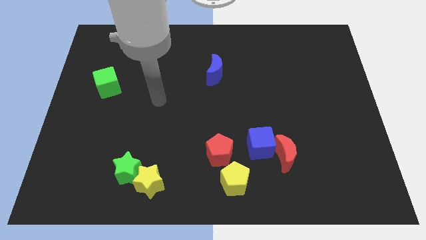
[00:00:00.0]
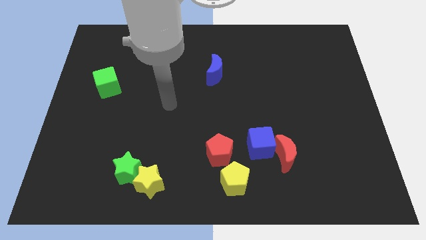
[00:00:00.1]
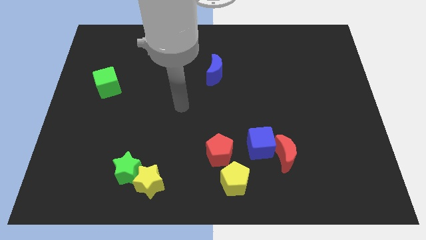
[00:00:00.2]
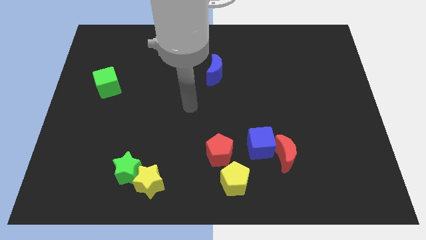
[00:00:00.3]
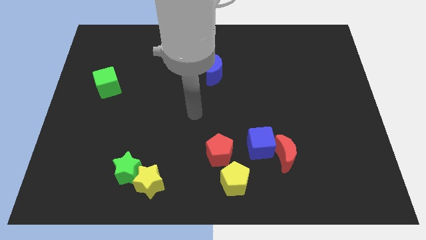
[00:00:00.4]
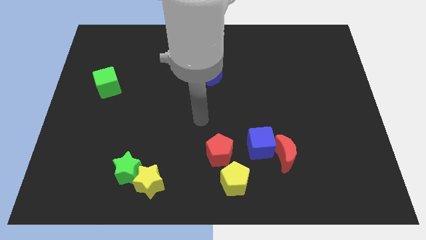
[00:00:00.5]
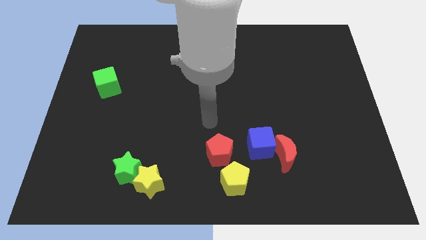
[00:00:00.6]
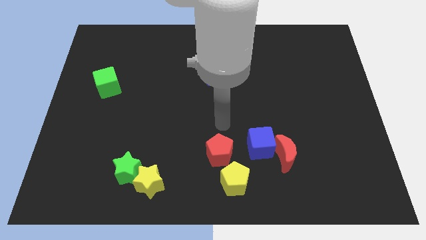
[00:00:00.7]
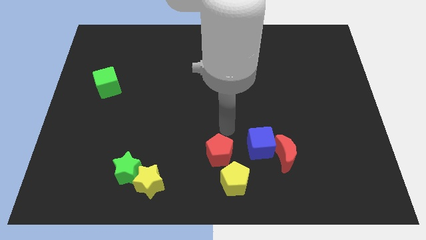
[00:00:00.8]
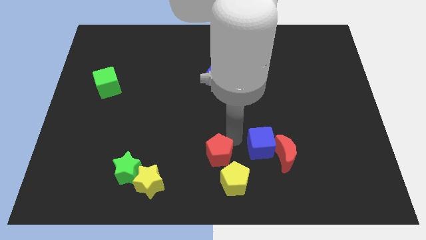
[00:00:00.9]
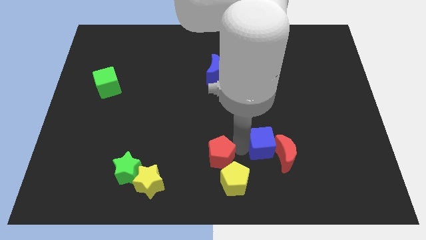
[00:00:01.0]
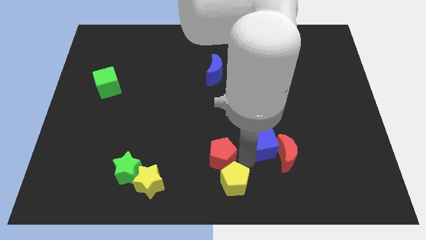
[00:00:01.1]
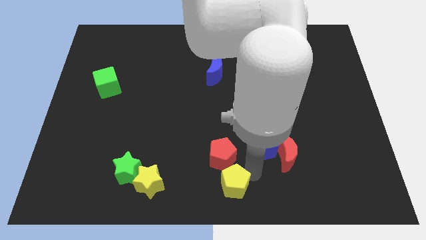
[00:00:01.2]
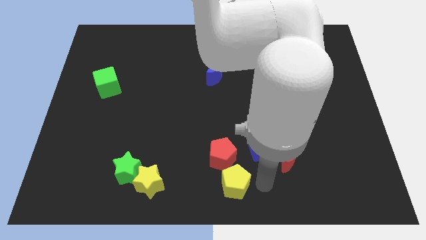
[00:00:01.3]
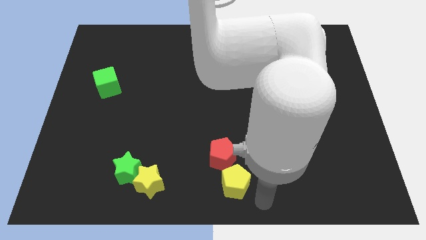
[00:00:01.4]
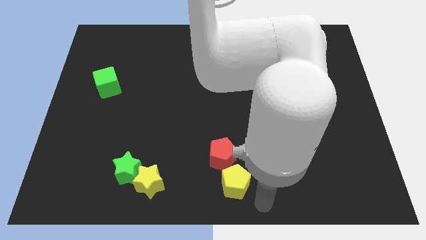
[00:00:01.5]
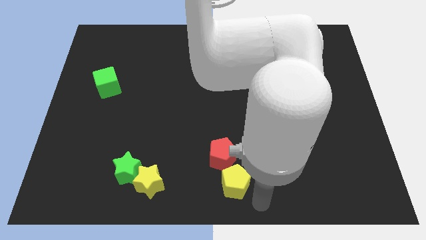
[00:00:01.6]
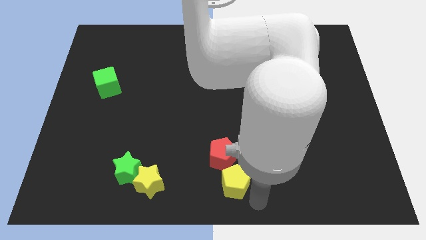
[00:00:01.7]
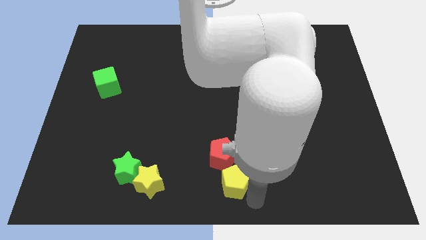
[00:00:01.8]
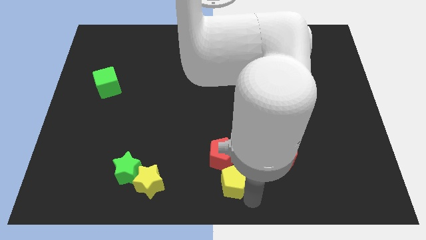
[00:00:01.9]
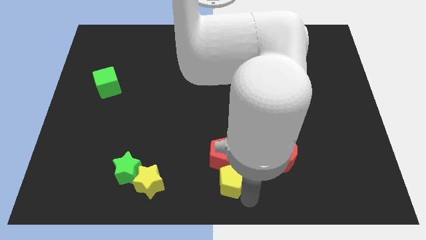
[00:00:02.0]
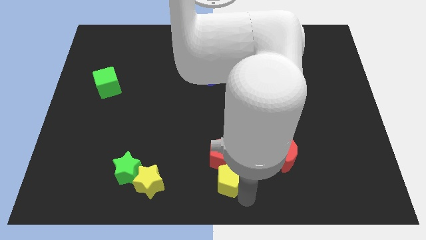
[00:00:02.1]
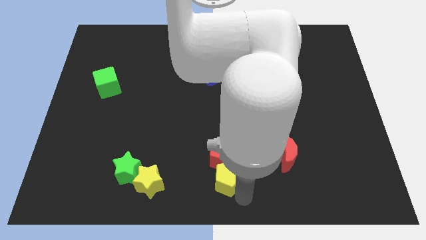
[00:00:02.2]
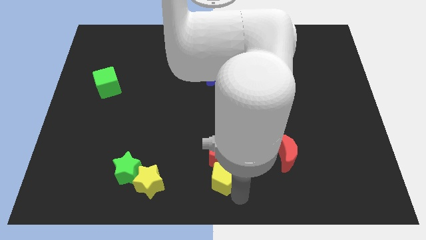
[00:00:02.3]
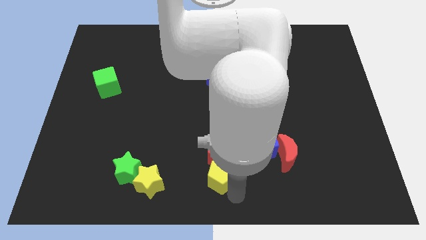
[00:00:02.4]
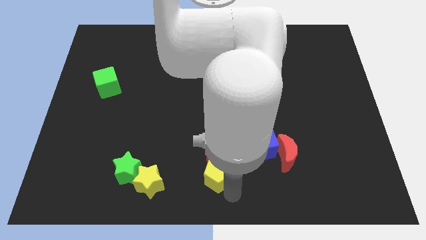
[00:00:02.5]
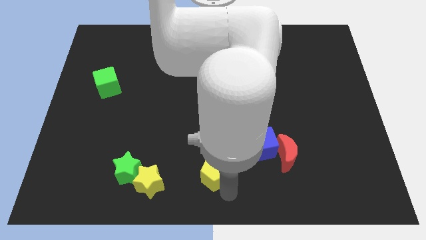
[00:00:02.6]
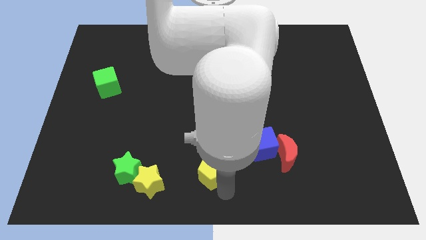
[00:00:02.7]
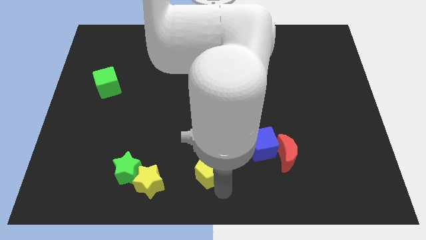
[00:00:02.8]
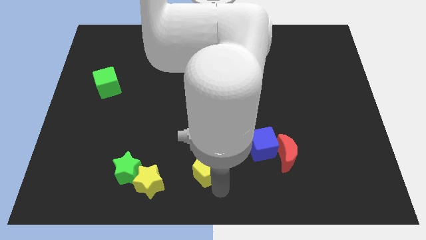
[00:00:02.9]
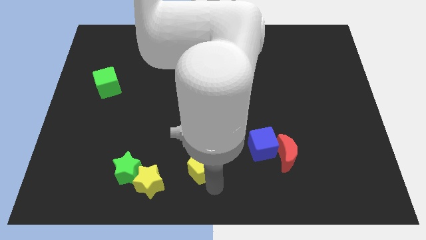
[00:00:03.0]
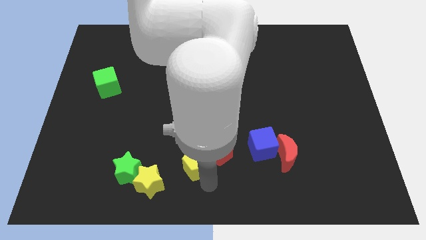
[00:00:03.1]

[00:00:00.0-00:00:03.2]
slide the yellow pentagon a bit upwards and to the left

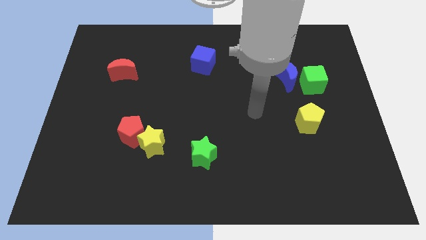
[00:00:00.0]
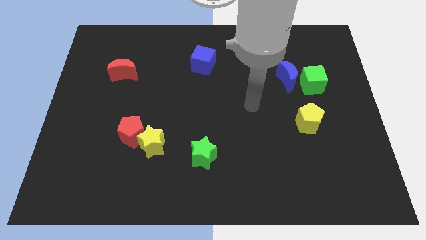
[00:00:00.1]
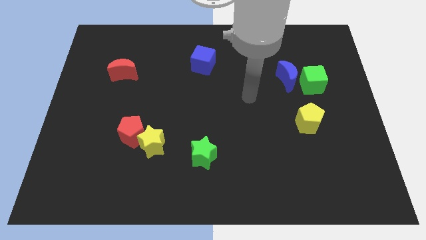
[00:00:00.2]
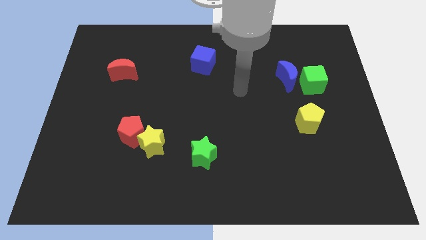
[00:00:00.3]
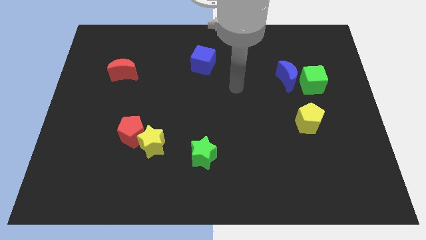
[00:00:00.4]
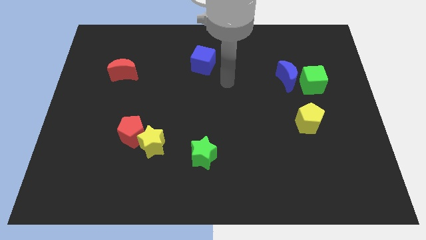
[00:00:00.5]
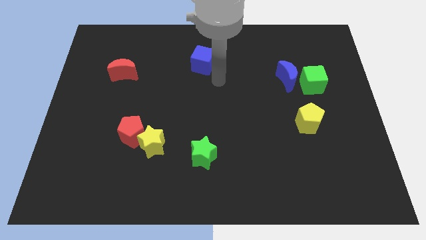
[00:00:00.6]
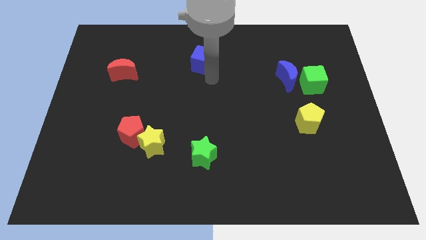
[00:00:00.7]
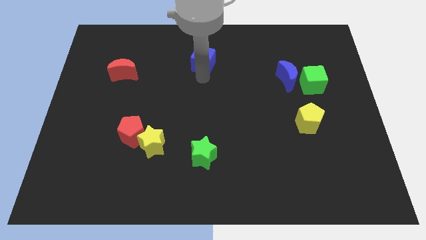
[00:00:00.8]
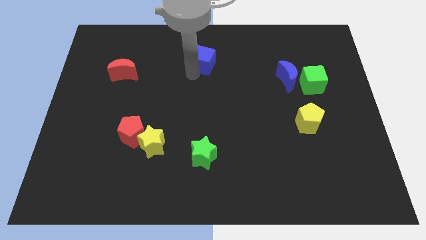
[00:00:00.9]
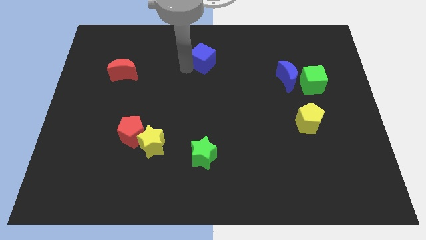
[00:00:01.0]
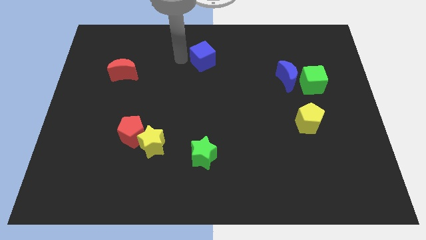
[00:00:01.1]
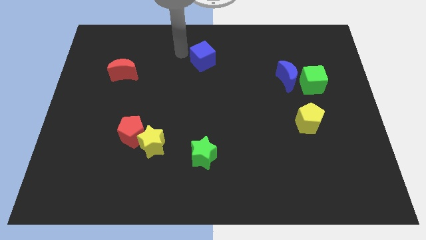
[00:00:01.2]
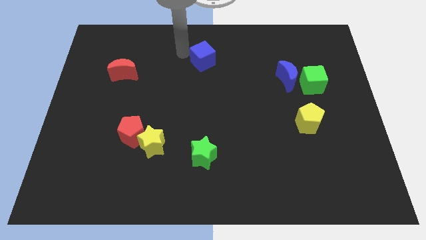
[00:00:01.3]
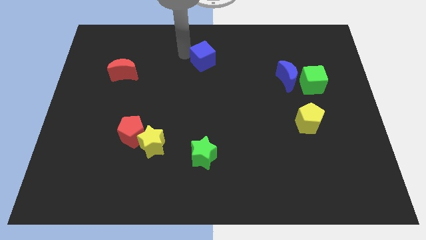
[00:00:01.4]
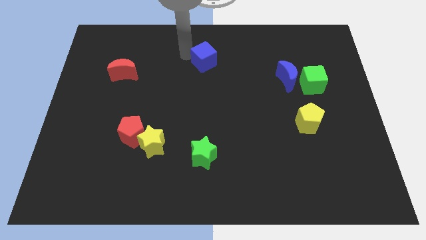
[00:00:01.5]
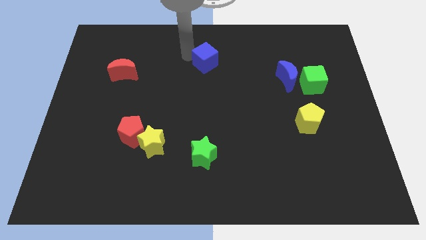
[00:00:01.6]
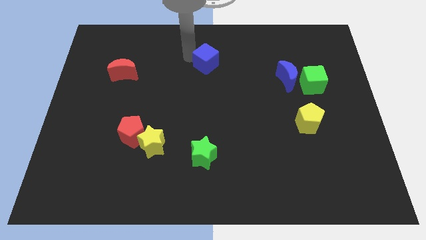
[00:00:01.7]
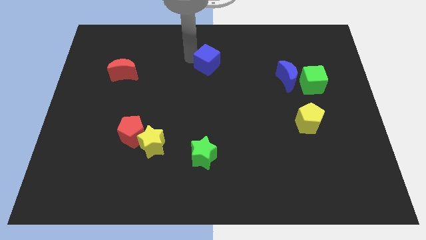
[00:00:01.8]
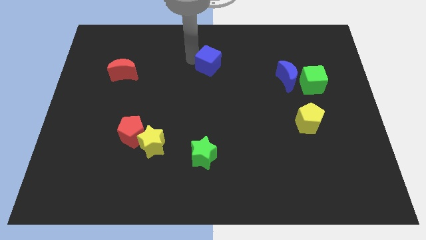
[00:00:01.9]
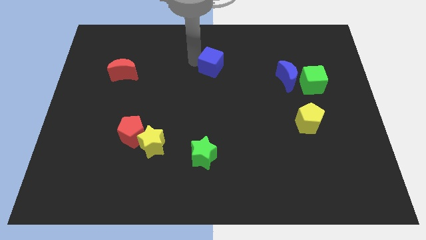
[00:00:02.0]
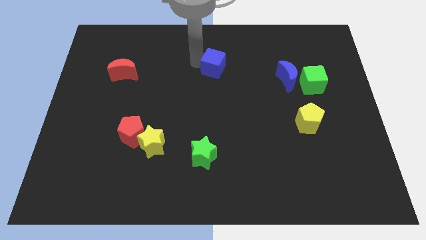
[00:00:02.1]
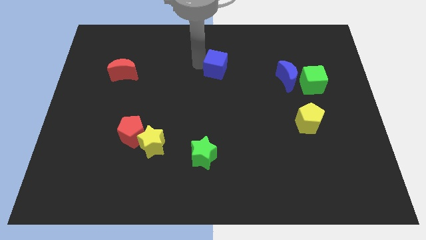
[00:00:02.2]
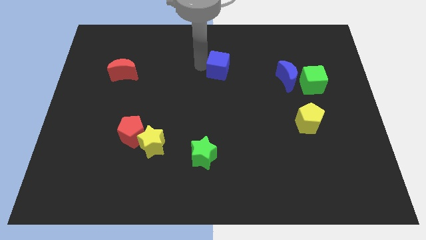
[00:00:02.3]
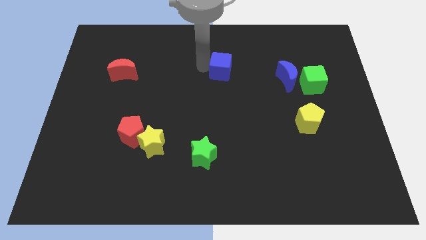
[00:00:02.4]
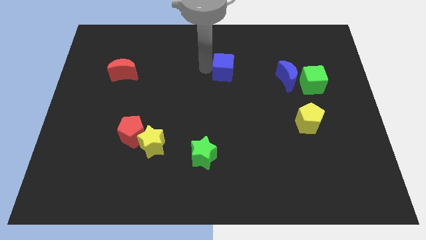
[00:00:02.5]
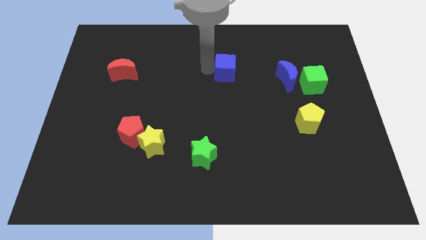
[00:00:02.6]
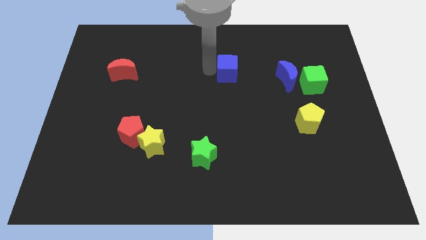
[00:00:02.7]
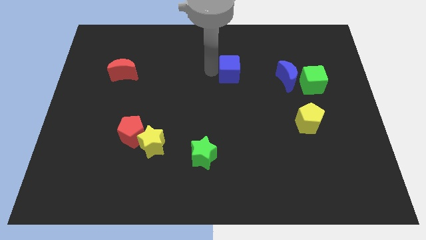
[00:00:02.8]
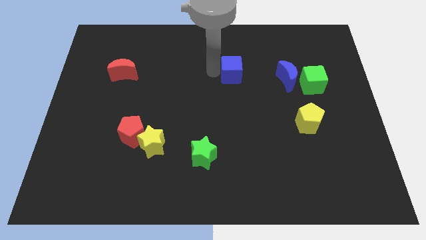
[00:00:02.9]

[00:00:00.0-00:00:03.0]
slightly slide the blue cube to the right

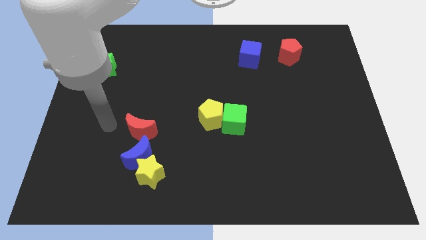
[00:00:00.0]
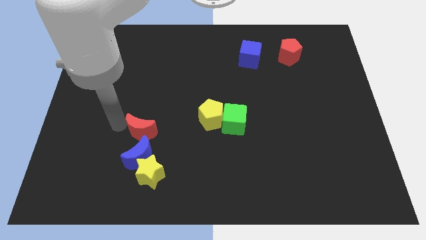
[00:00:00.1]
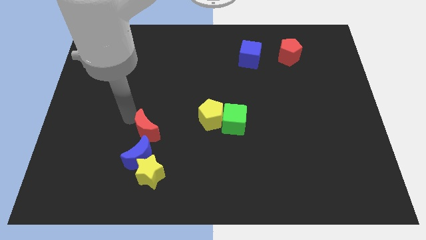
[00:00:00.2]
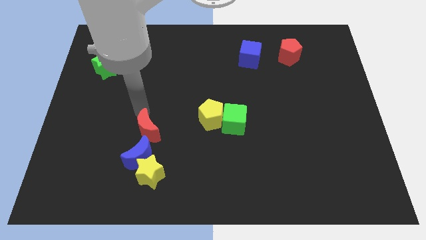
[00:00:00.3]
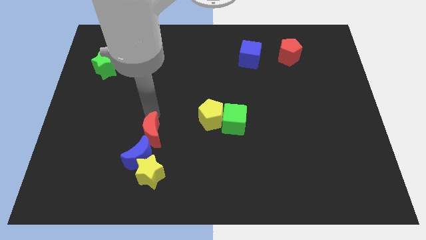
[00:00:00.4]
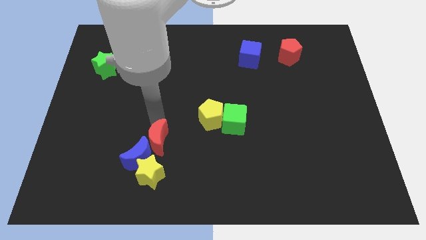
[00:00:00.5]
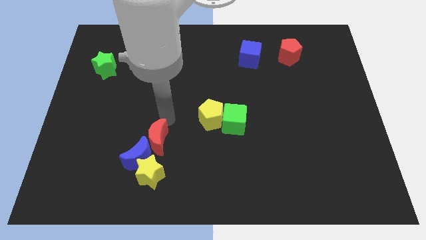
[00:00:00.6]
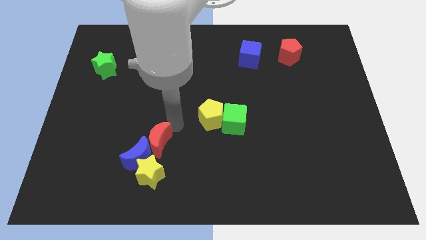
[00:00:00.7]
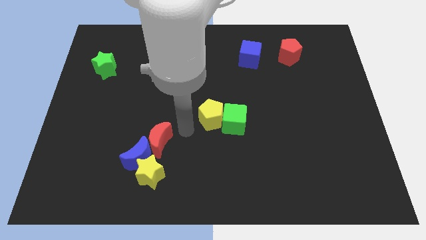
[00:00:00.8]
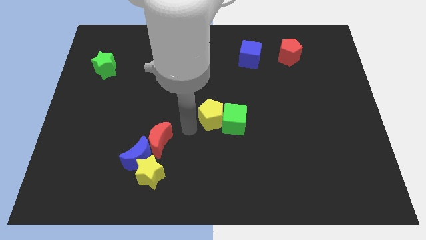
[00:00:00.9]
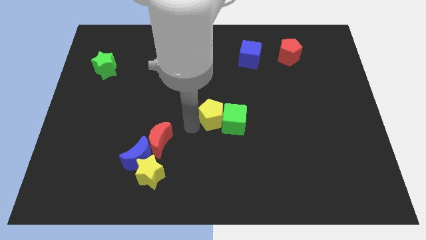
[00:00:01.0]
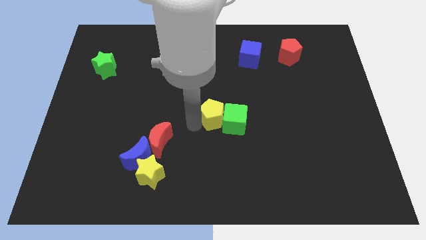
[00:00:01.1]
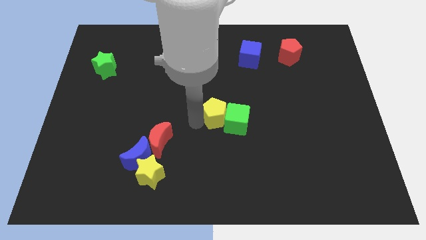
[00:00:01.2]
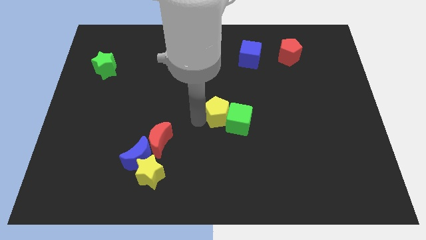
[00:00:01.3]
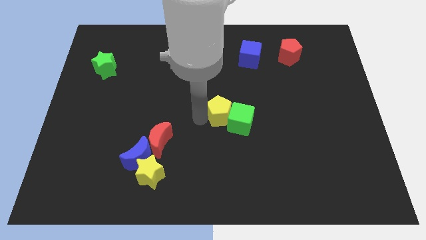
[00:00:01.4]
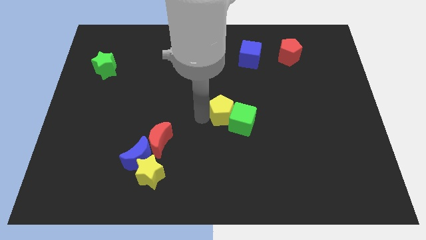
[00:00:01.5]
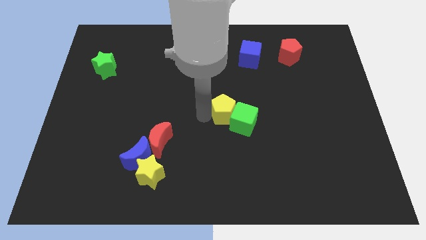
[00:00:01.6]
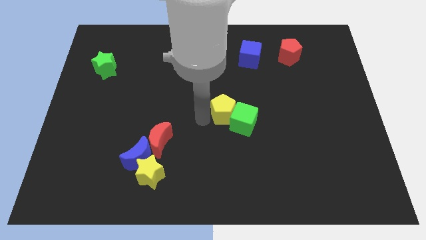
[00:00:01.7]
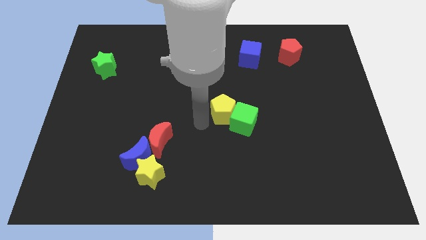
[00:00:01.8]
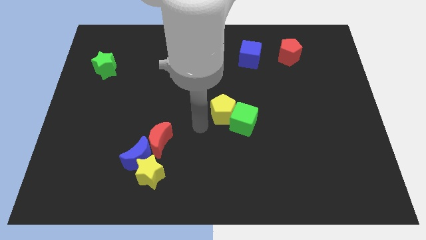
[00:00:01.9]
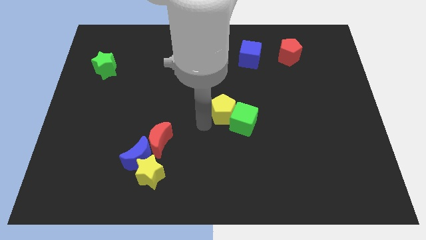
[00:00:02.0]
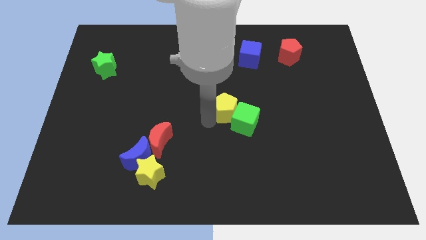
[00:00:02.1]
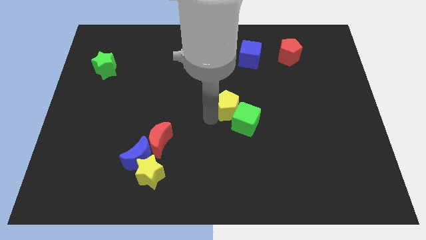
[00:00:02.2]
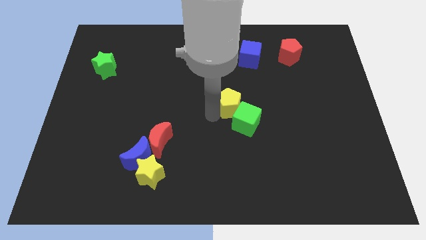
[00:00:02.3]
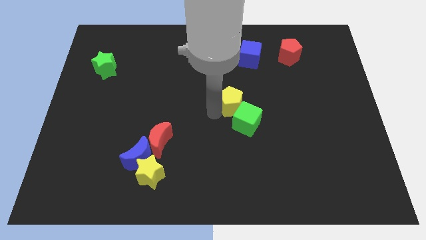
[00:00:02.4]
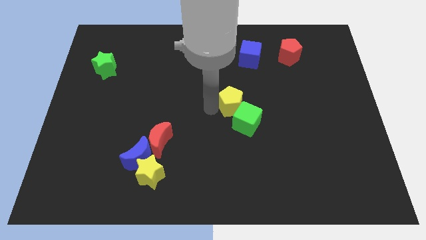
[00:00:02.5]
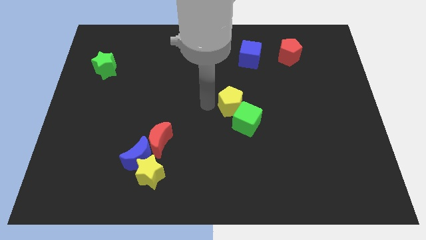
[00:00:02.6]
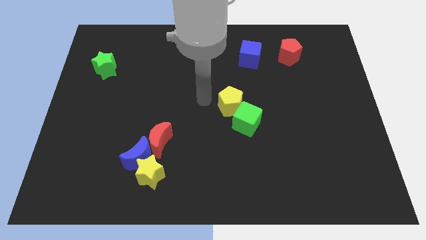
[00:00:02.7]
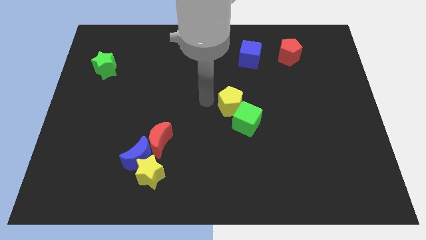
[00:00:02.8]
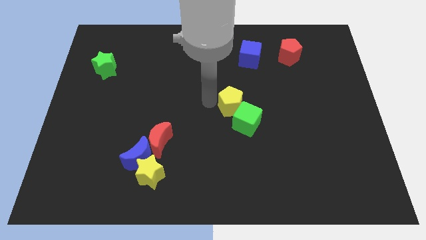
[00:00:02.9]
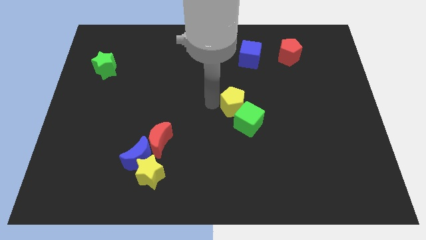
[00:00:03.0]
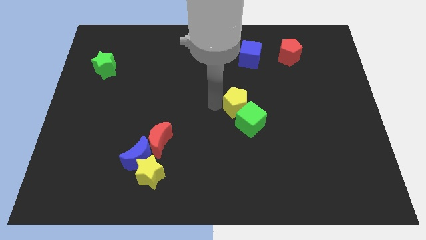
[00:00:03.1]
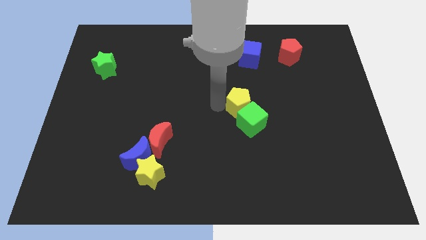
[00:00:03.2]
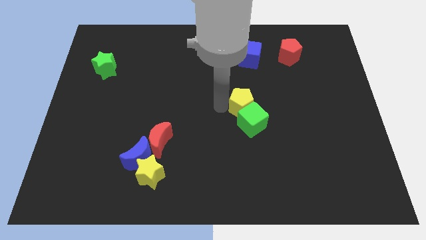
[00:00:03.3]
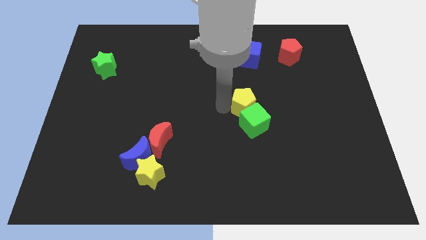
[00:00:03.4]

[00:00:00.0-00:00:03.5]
slide the yellow pentagon right a bit
